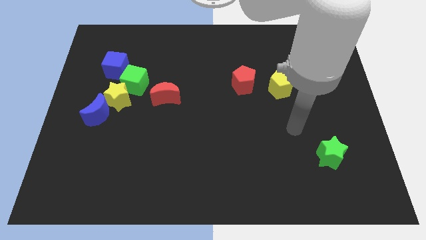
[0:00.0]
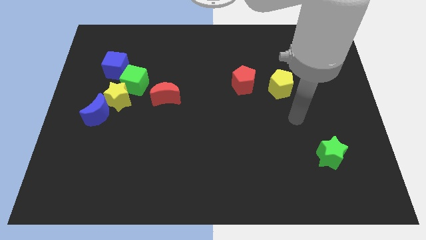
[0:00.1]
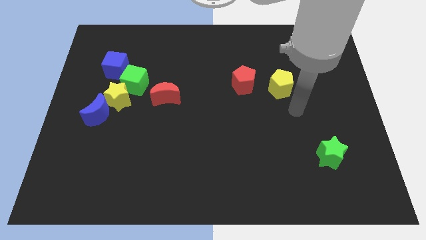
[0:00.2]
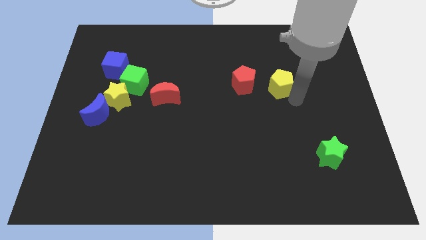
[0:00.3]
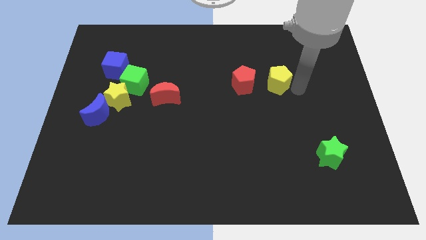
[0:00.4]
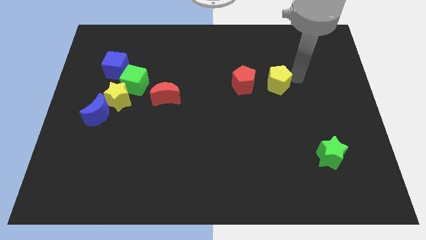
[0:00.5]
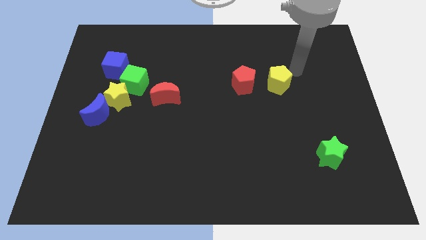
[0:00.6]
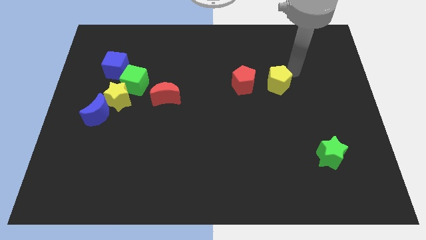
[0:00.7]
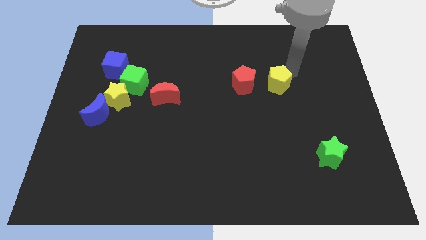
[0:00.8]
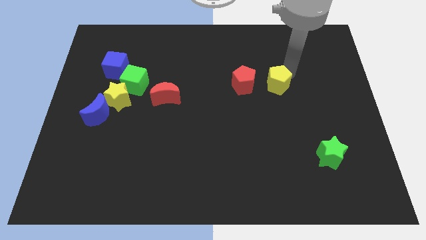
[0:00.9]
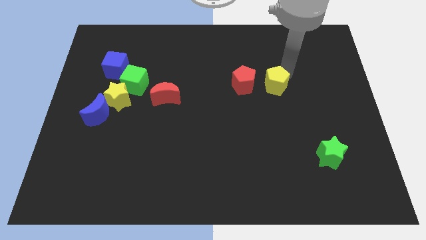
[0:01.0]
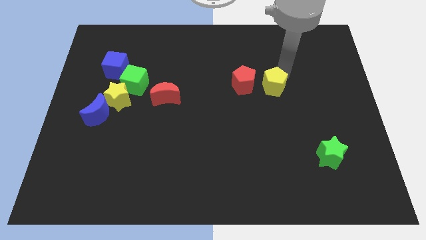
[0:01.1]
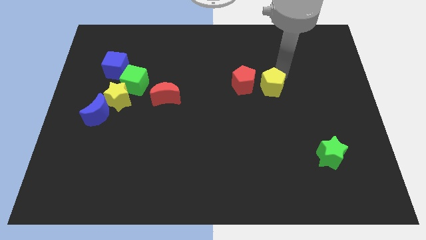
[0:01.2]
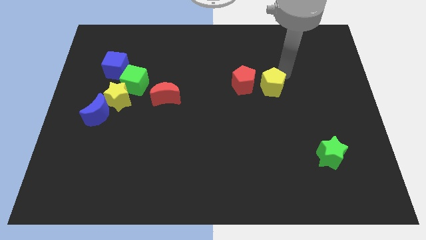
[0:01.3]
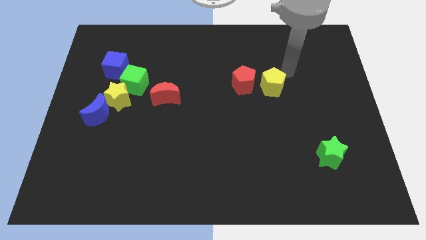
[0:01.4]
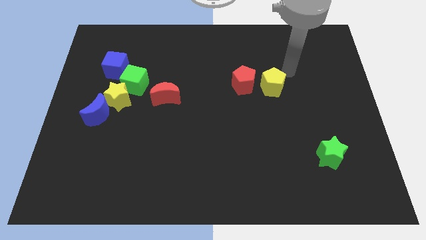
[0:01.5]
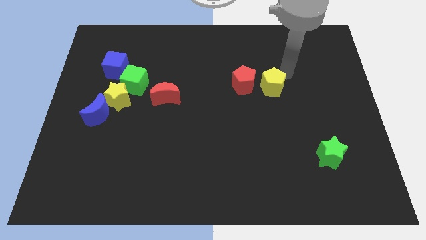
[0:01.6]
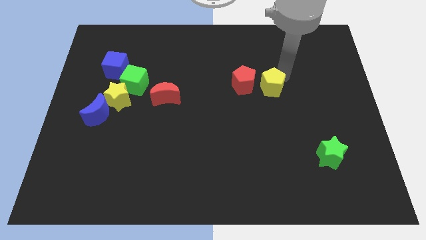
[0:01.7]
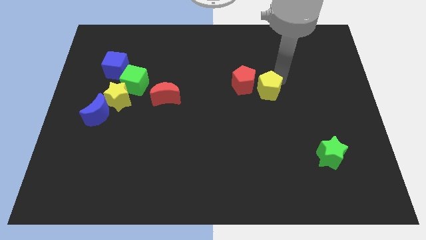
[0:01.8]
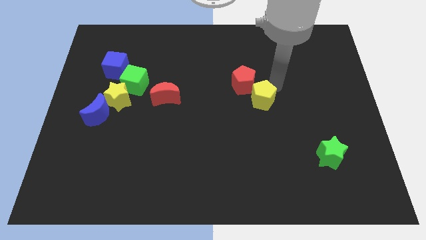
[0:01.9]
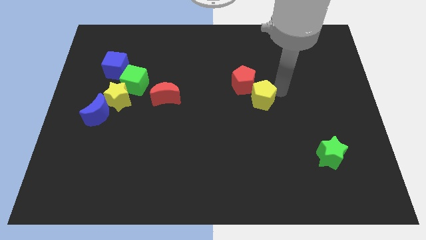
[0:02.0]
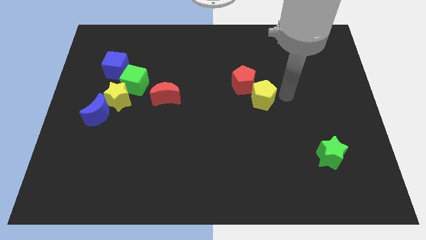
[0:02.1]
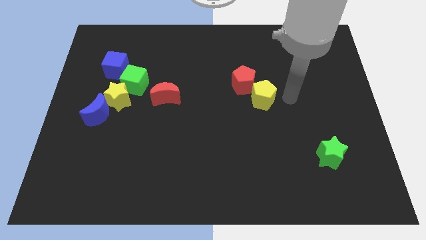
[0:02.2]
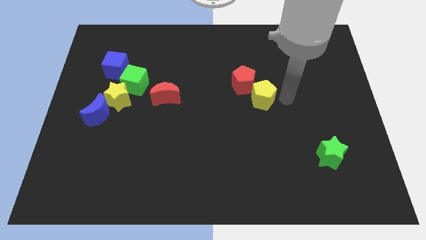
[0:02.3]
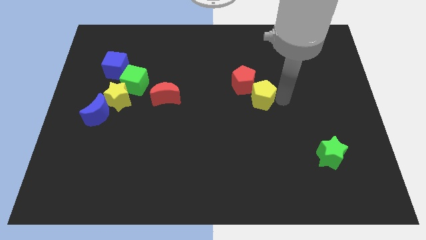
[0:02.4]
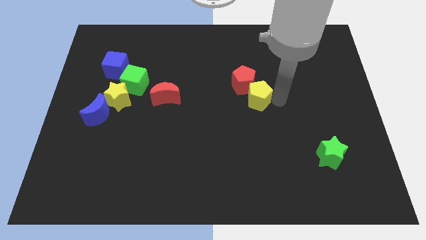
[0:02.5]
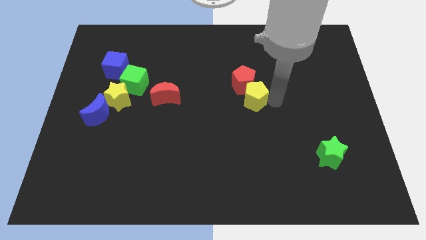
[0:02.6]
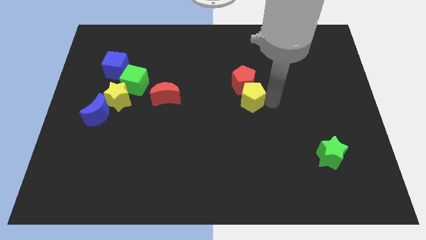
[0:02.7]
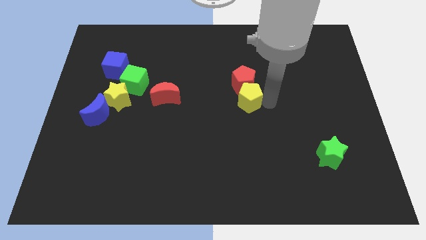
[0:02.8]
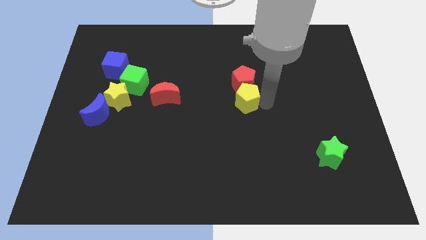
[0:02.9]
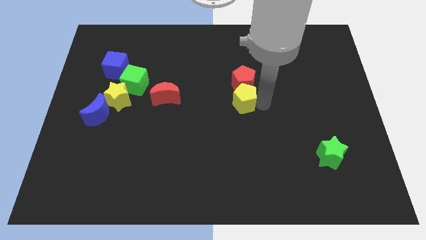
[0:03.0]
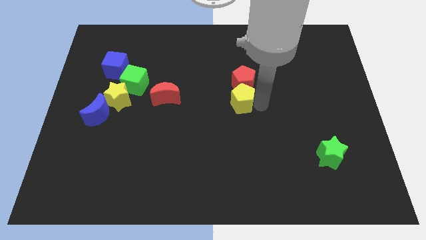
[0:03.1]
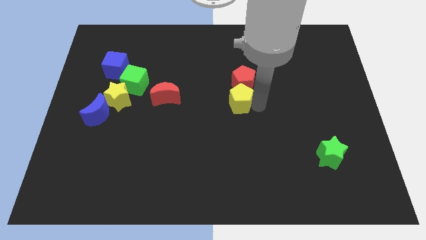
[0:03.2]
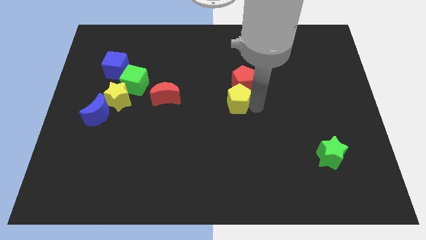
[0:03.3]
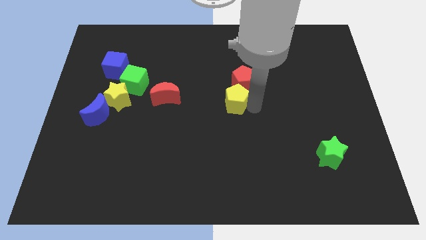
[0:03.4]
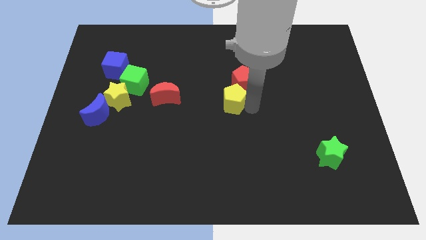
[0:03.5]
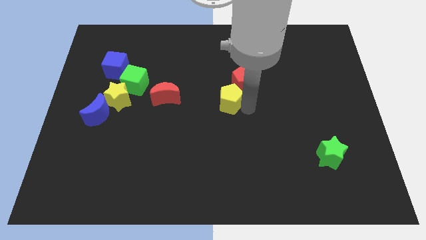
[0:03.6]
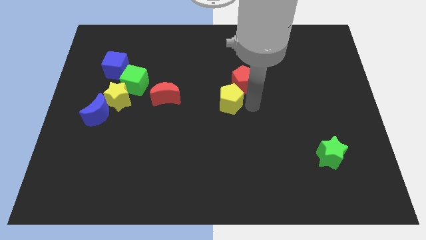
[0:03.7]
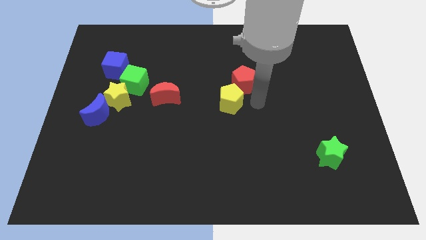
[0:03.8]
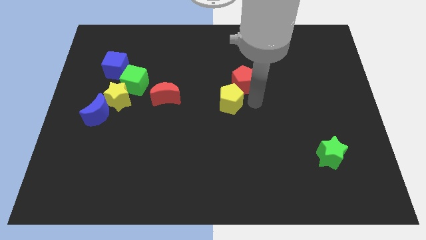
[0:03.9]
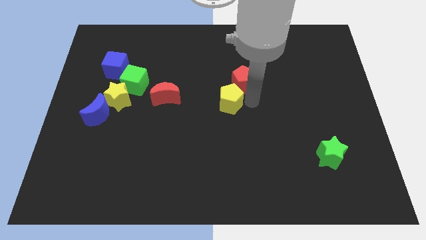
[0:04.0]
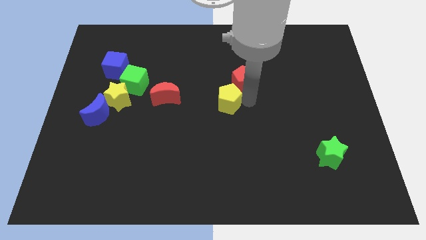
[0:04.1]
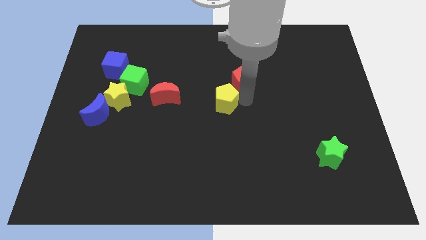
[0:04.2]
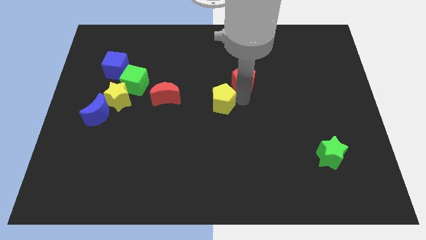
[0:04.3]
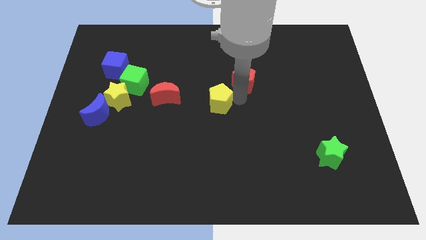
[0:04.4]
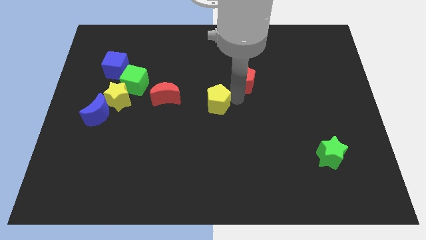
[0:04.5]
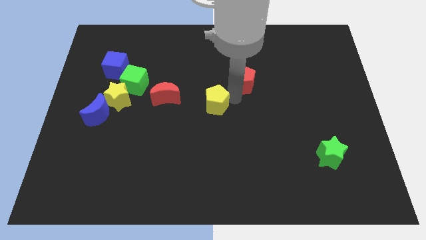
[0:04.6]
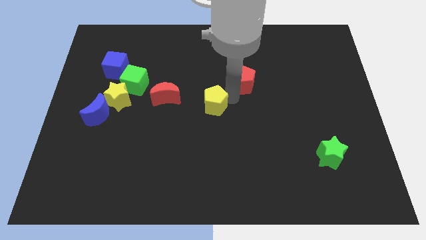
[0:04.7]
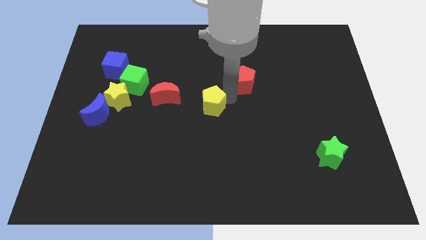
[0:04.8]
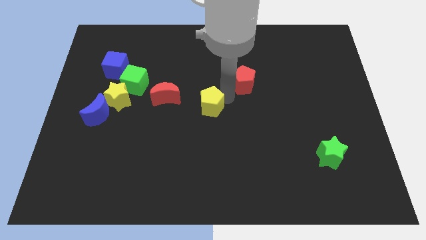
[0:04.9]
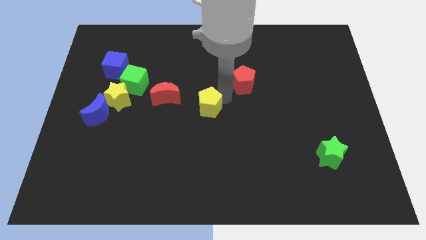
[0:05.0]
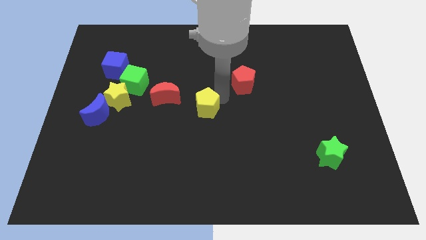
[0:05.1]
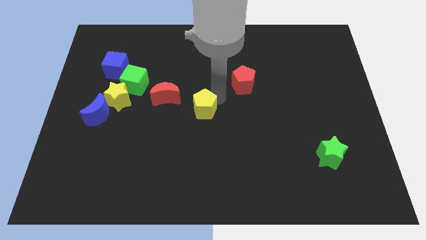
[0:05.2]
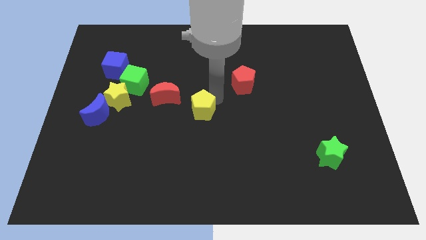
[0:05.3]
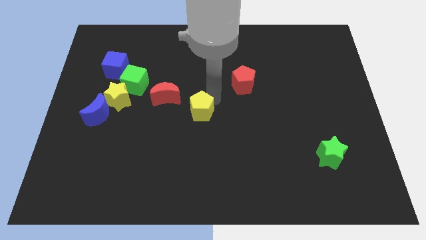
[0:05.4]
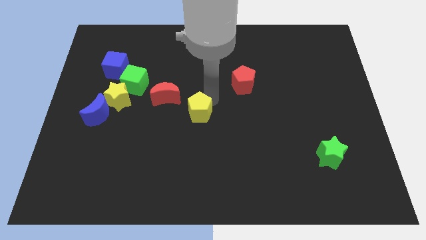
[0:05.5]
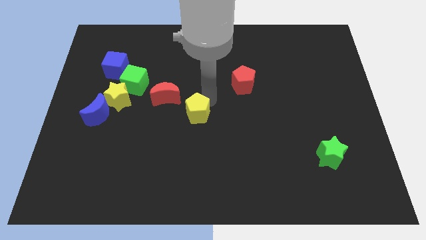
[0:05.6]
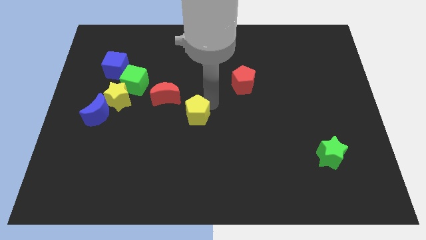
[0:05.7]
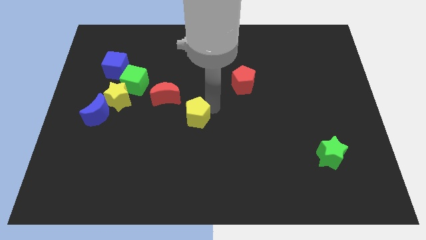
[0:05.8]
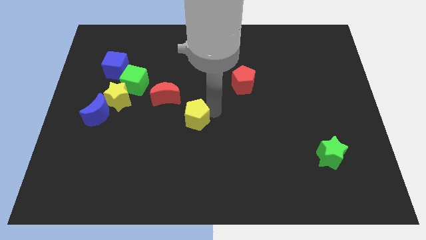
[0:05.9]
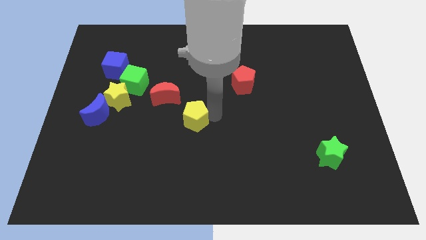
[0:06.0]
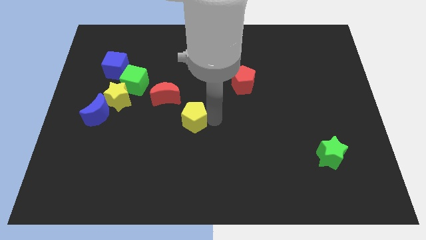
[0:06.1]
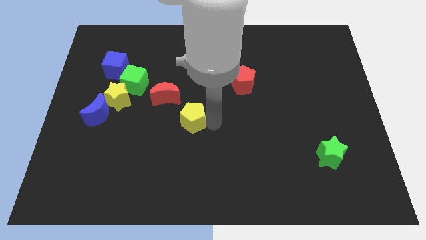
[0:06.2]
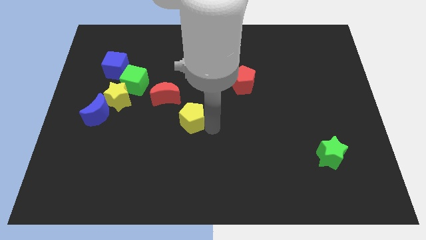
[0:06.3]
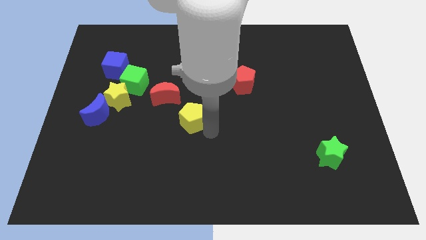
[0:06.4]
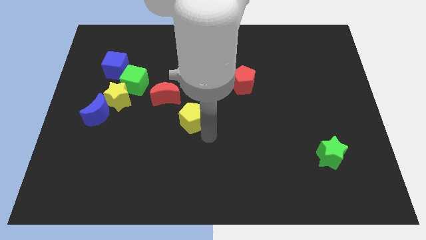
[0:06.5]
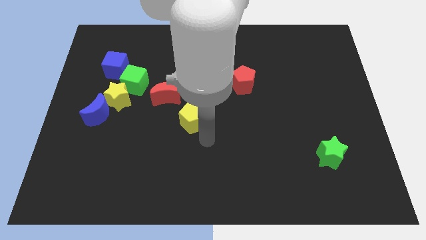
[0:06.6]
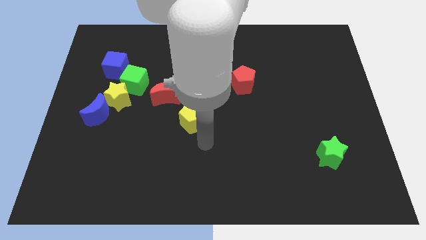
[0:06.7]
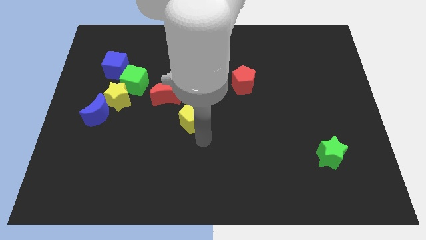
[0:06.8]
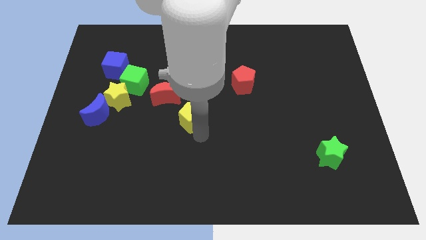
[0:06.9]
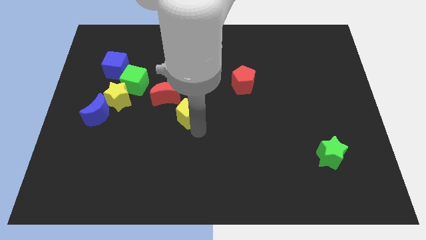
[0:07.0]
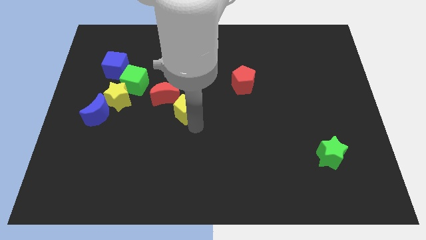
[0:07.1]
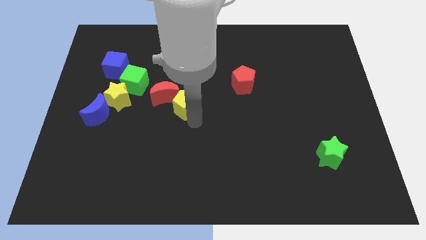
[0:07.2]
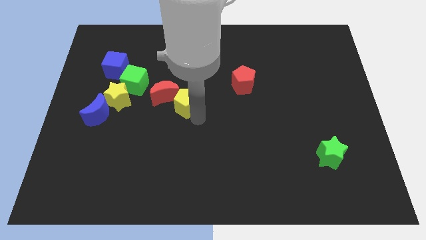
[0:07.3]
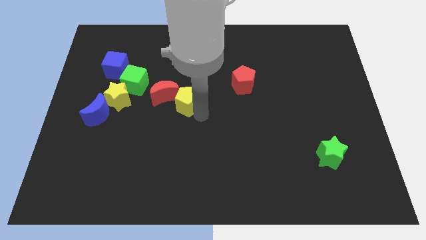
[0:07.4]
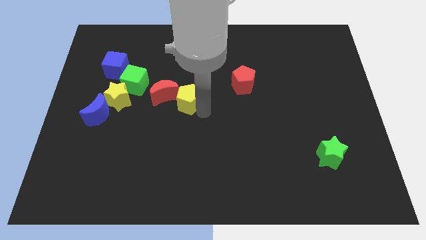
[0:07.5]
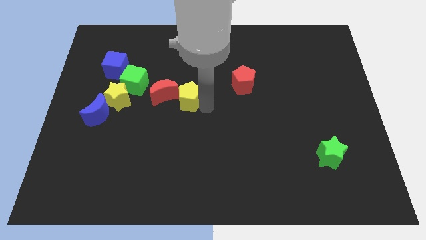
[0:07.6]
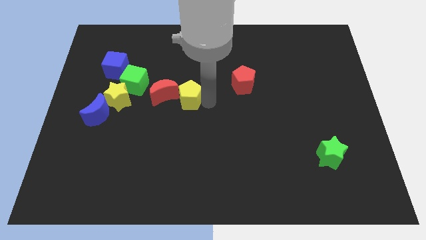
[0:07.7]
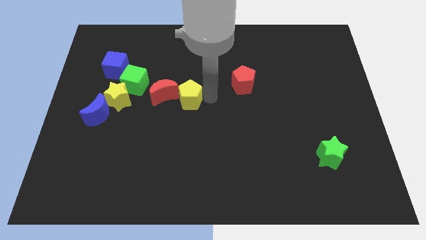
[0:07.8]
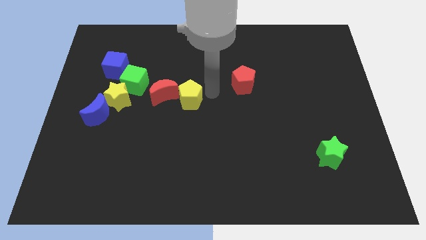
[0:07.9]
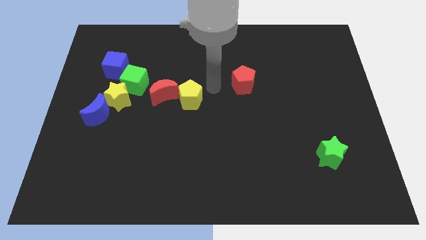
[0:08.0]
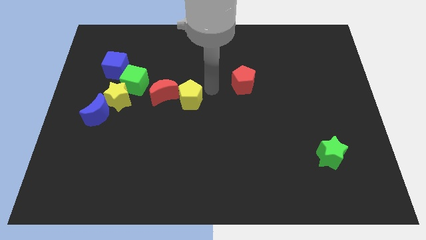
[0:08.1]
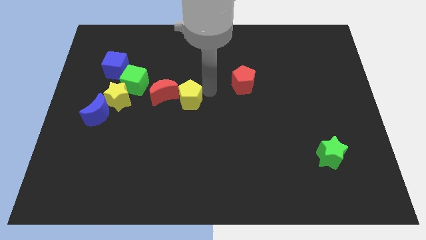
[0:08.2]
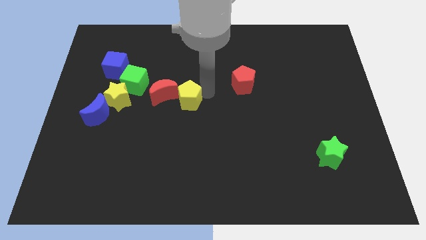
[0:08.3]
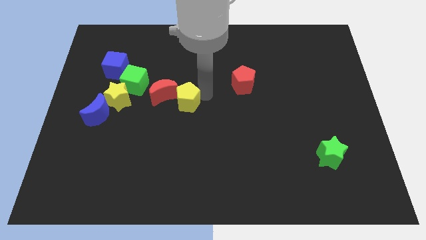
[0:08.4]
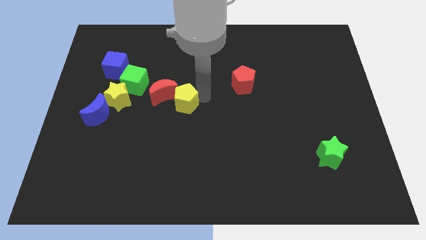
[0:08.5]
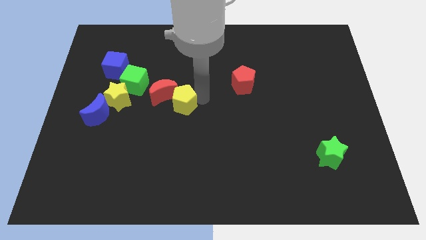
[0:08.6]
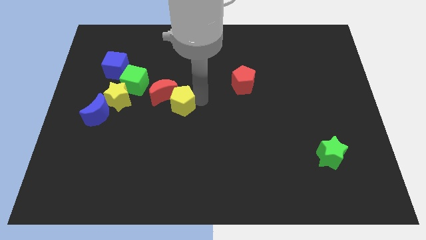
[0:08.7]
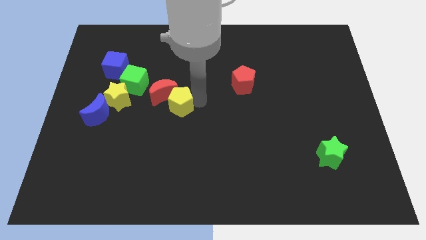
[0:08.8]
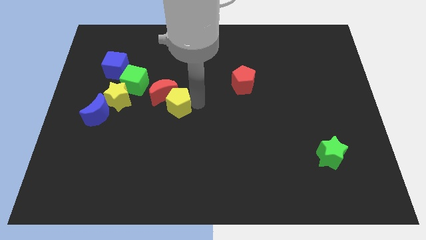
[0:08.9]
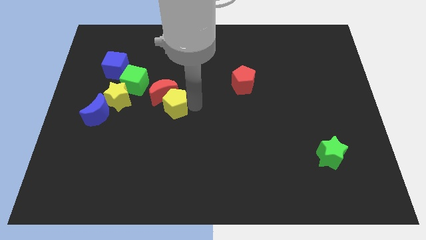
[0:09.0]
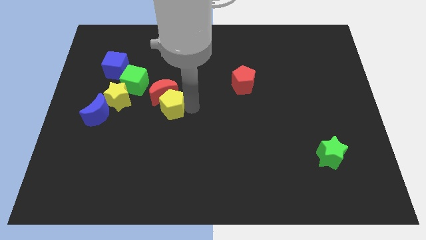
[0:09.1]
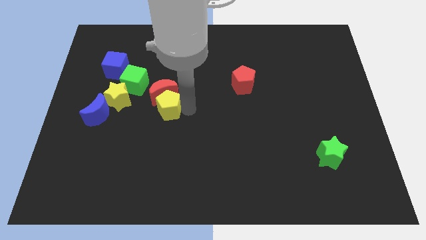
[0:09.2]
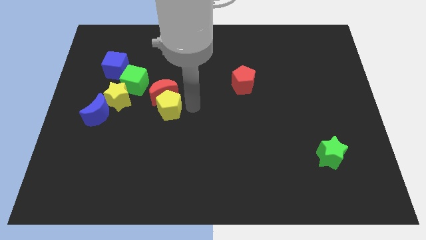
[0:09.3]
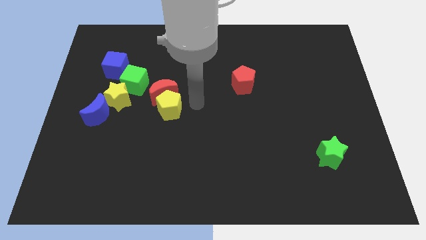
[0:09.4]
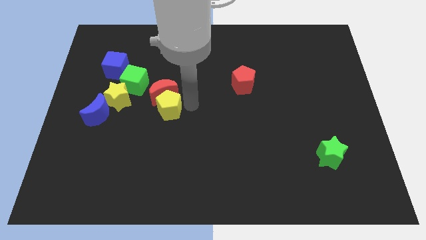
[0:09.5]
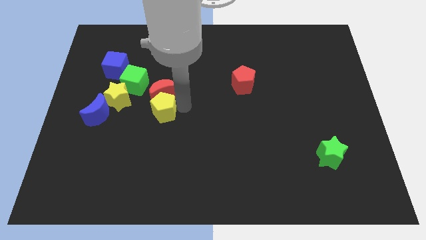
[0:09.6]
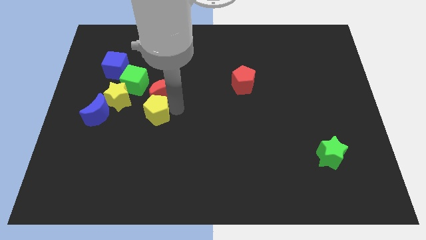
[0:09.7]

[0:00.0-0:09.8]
put the yellow pentagon to the bottom right side of the yellow star
